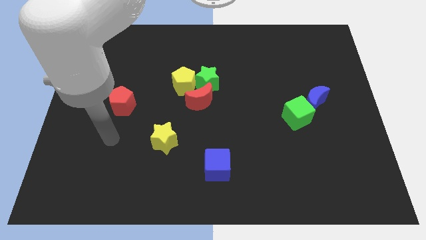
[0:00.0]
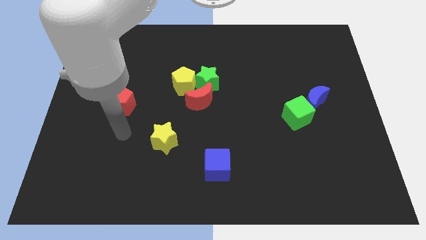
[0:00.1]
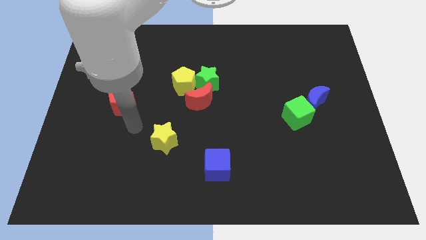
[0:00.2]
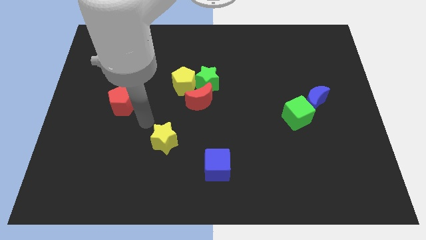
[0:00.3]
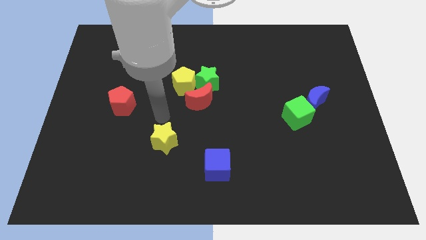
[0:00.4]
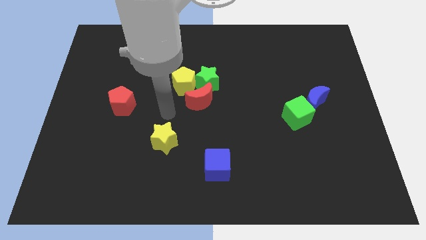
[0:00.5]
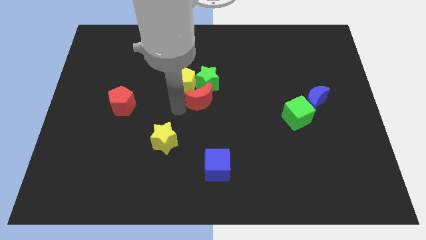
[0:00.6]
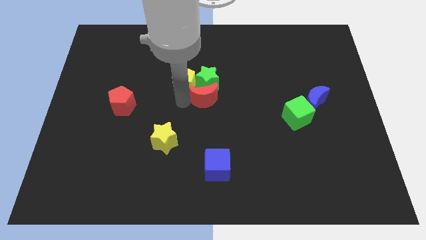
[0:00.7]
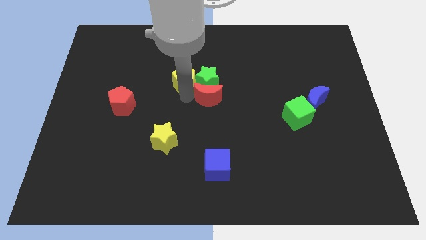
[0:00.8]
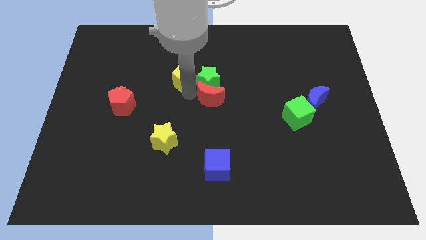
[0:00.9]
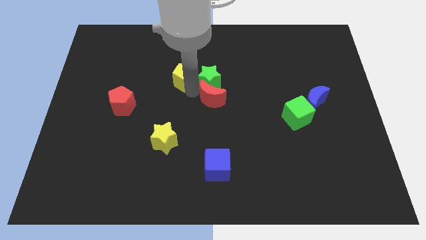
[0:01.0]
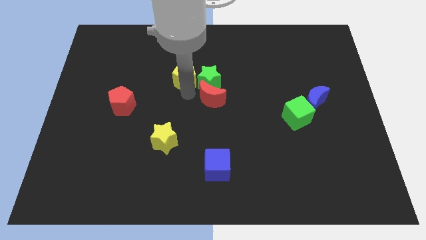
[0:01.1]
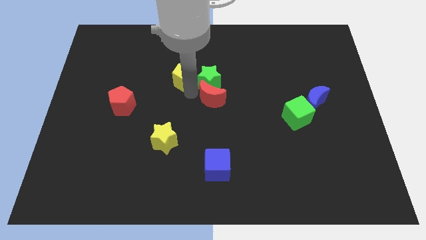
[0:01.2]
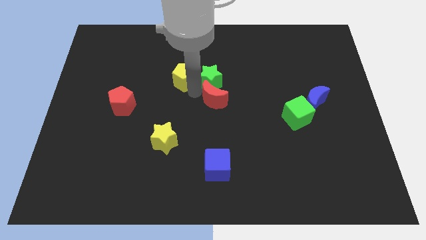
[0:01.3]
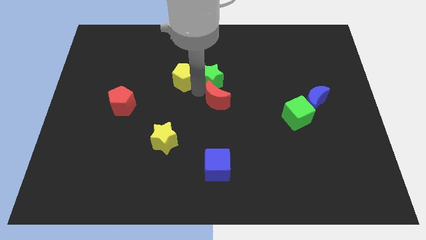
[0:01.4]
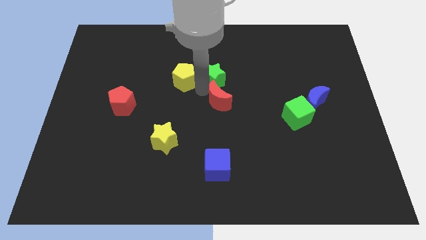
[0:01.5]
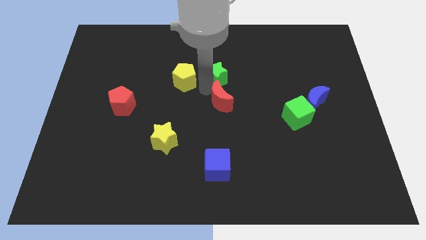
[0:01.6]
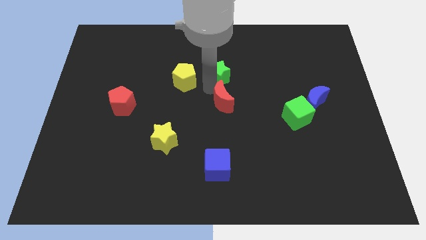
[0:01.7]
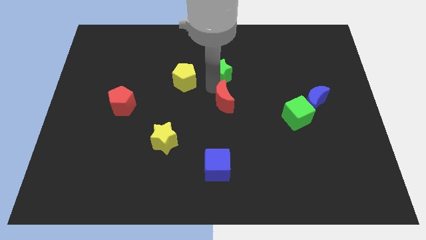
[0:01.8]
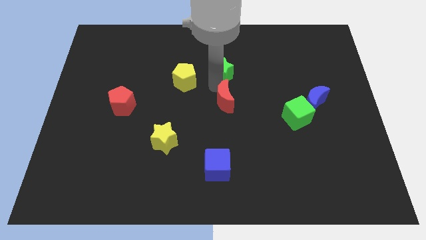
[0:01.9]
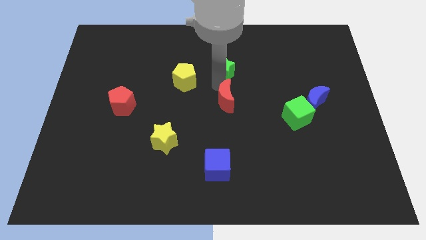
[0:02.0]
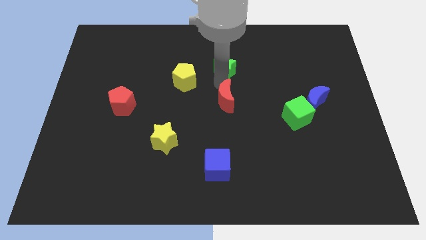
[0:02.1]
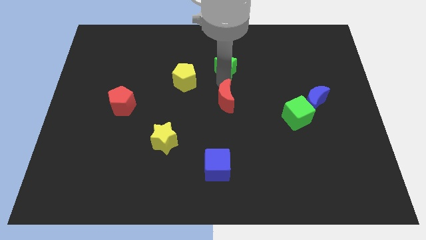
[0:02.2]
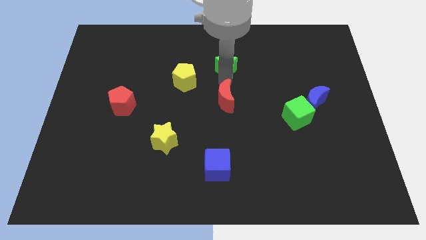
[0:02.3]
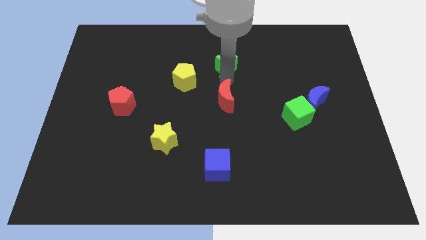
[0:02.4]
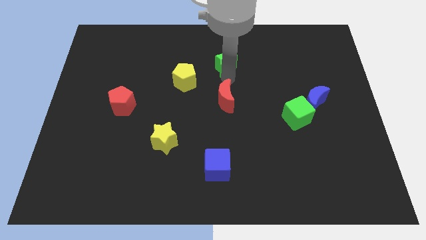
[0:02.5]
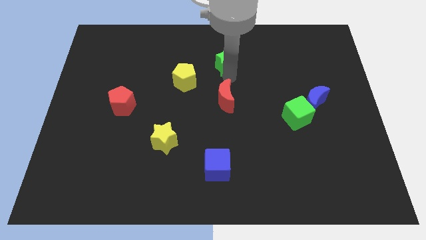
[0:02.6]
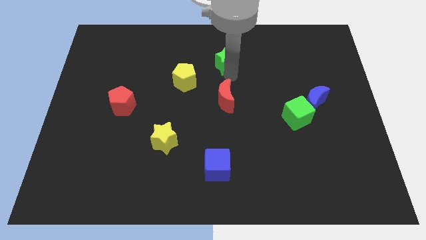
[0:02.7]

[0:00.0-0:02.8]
separate the green star from the yellow pentagon and red moon

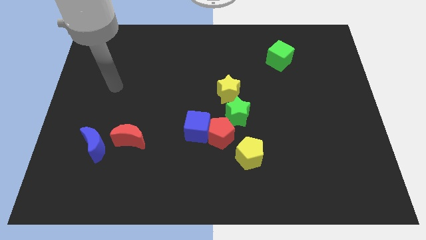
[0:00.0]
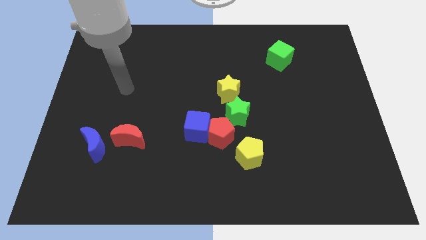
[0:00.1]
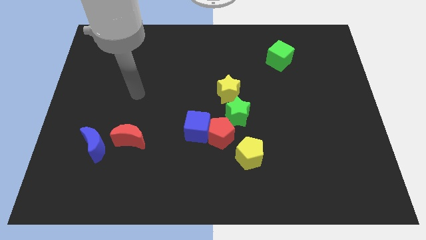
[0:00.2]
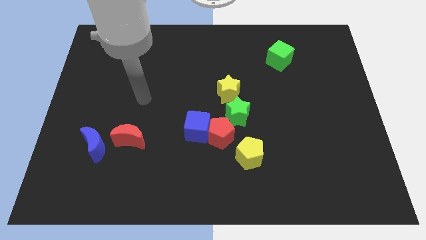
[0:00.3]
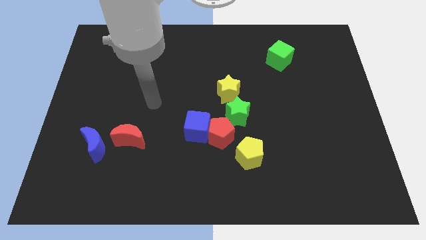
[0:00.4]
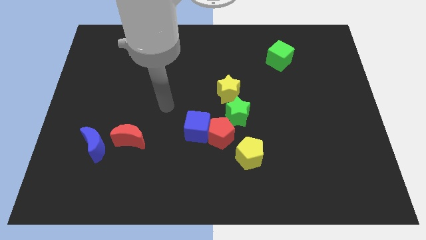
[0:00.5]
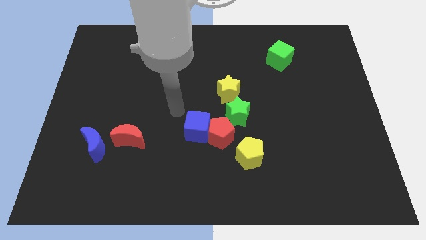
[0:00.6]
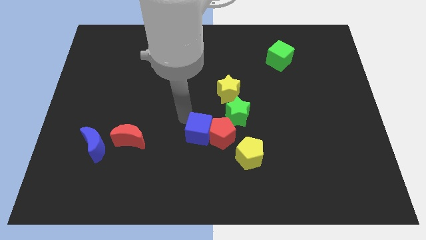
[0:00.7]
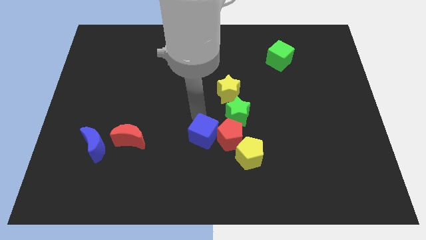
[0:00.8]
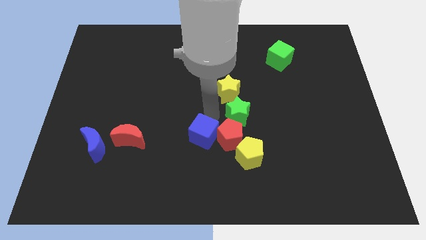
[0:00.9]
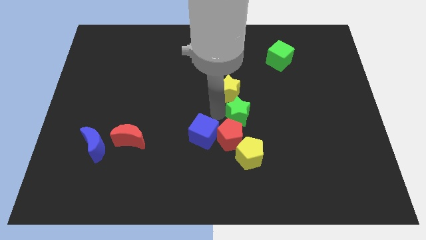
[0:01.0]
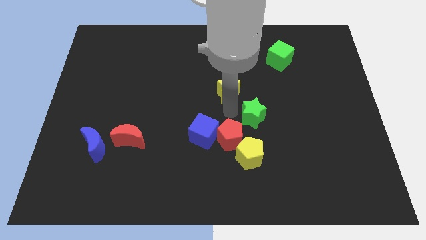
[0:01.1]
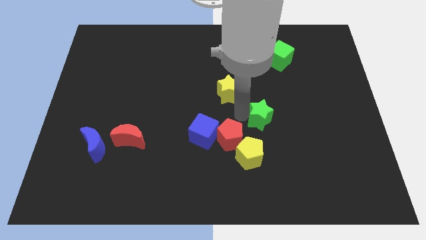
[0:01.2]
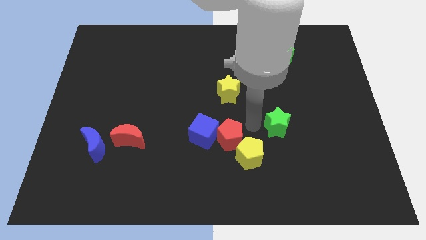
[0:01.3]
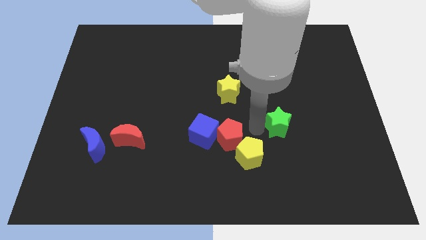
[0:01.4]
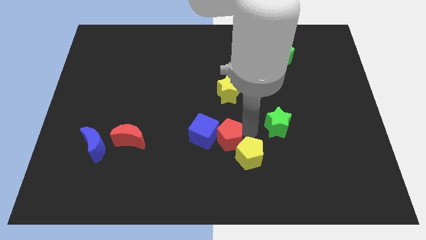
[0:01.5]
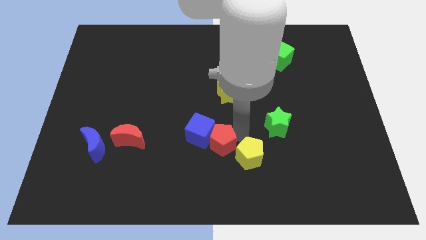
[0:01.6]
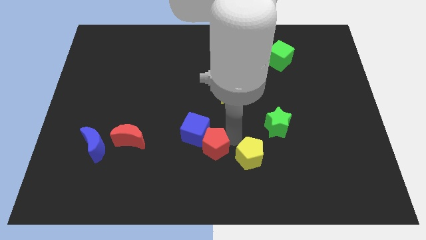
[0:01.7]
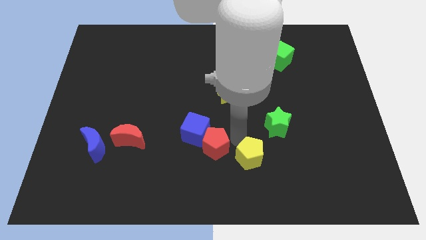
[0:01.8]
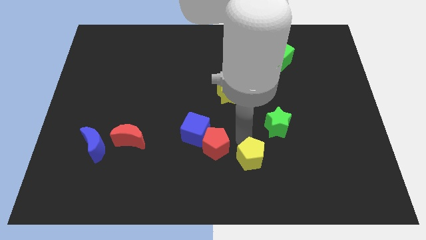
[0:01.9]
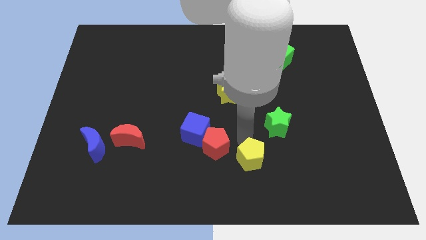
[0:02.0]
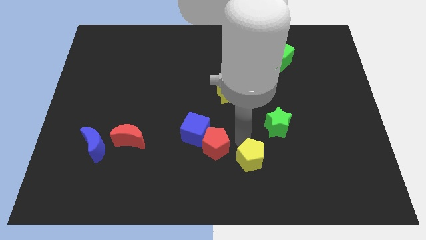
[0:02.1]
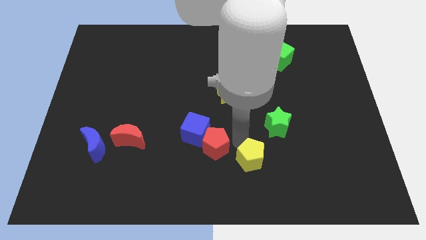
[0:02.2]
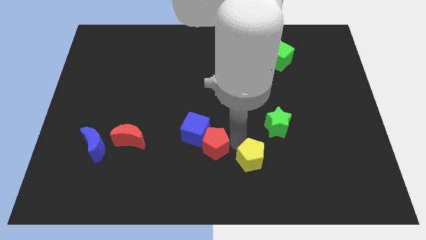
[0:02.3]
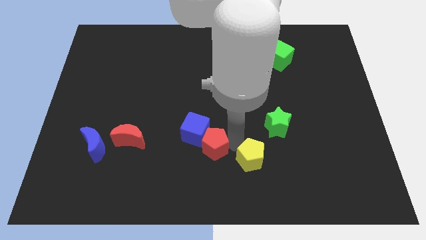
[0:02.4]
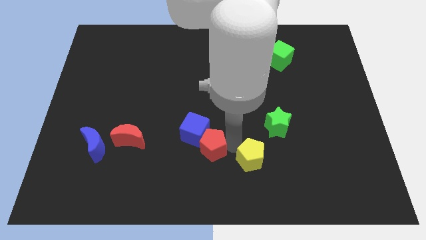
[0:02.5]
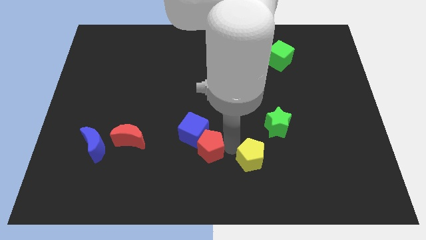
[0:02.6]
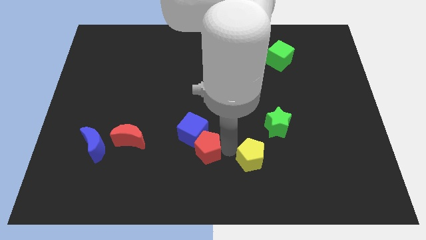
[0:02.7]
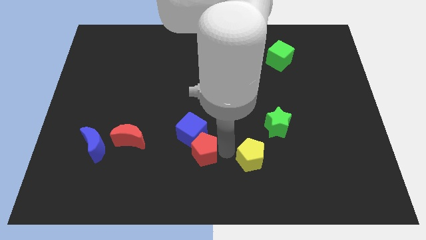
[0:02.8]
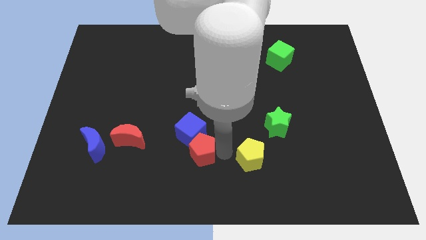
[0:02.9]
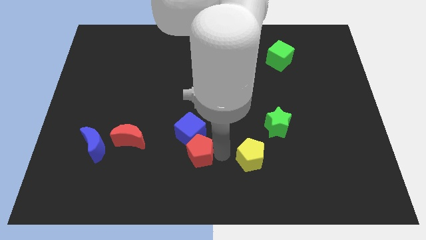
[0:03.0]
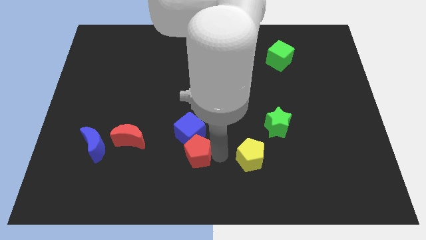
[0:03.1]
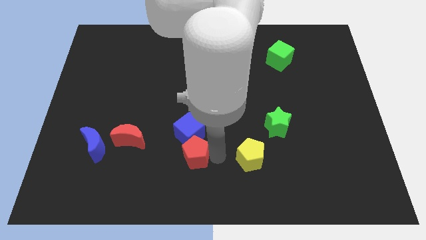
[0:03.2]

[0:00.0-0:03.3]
separate the red pentagon from the blue cube, green star, and yellow pentagon

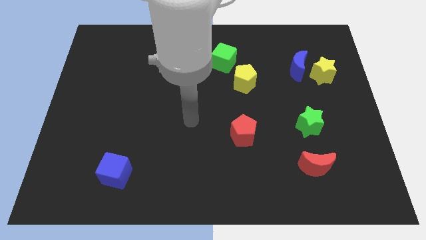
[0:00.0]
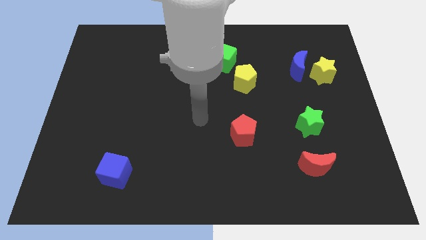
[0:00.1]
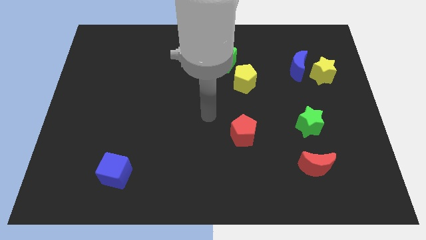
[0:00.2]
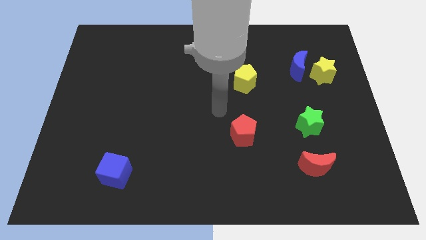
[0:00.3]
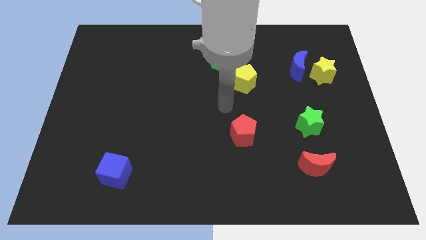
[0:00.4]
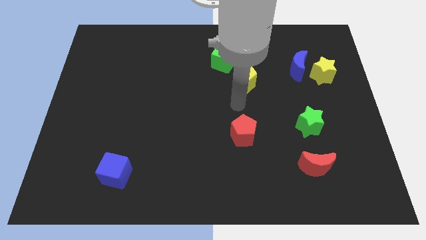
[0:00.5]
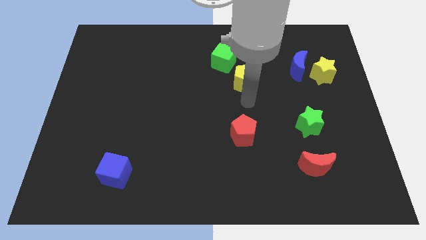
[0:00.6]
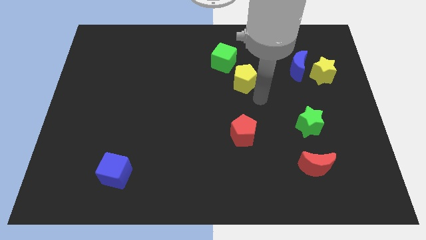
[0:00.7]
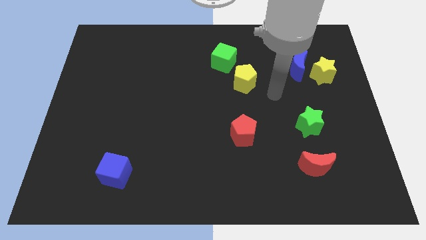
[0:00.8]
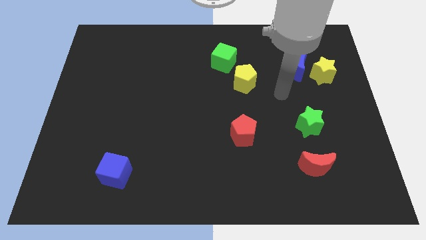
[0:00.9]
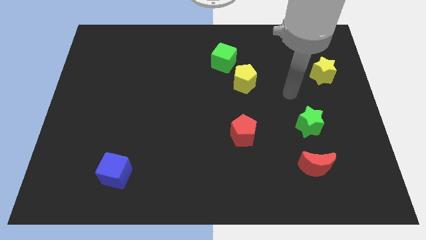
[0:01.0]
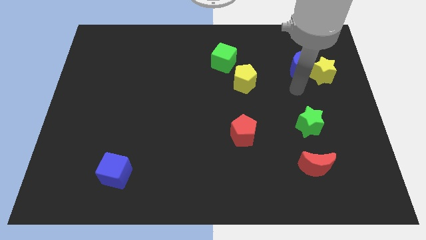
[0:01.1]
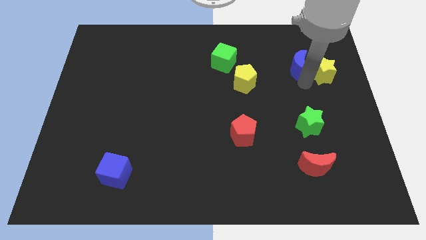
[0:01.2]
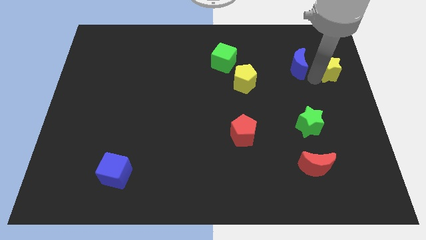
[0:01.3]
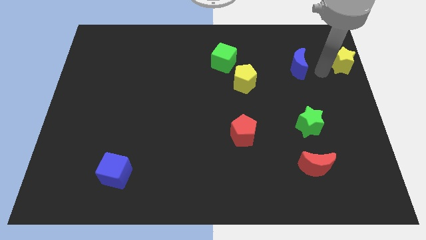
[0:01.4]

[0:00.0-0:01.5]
separate the blue moon from the yellow star

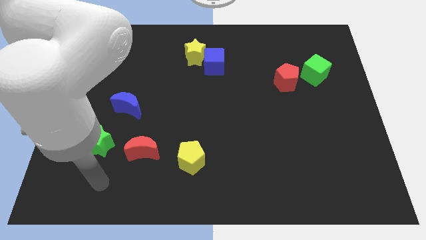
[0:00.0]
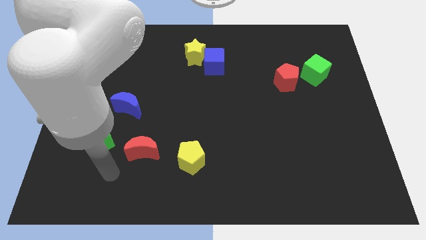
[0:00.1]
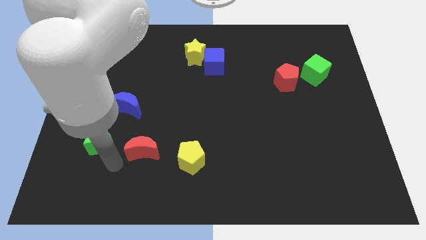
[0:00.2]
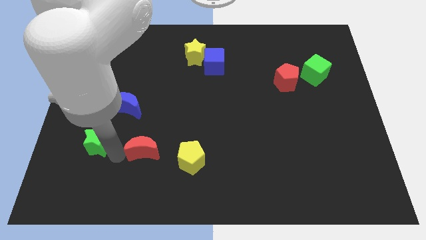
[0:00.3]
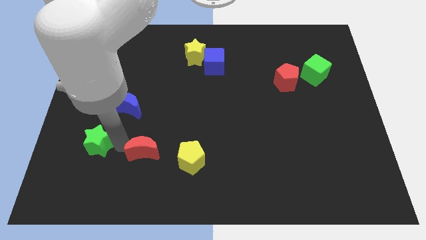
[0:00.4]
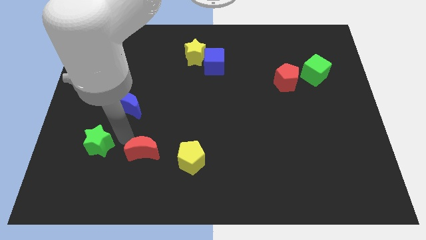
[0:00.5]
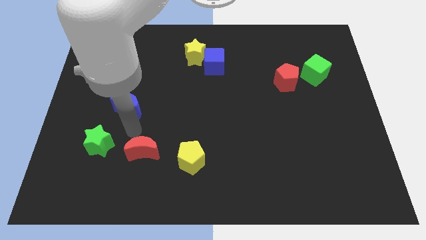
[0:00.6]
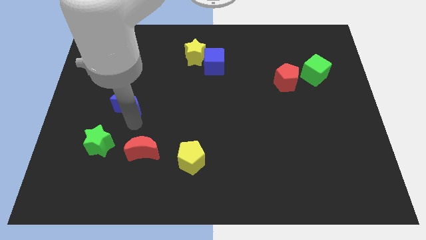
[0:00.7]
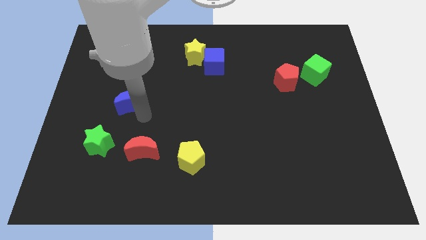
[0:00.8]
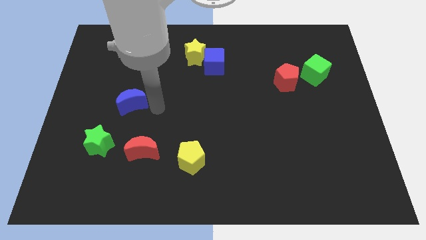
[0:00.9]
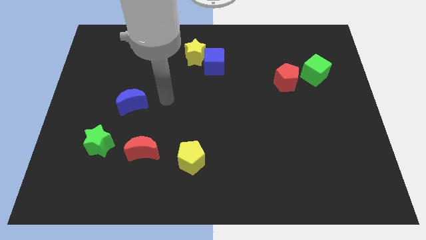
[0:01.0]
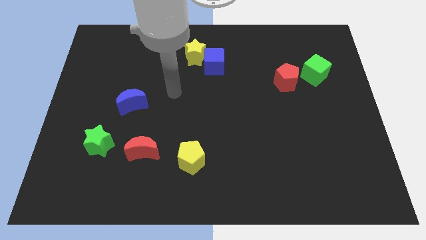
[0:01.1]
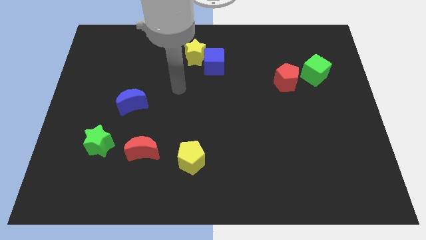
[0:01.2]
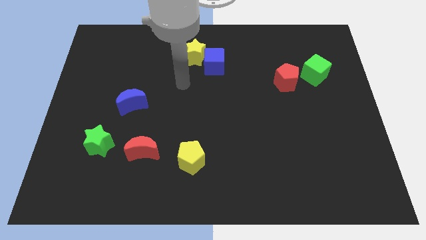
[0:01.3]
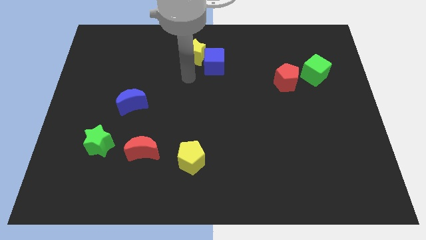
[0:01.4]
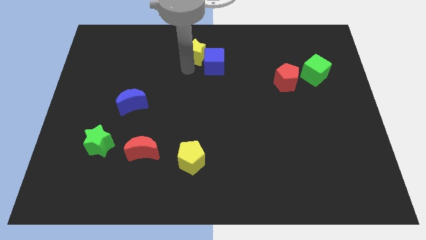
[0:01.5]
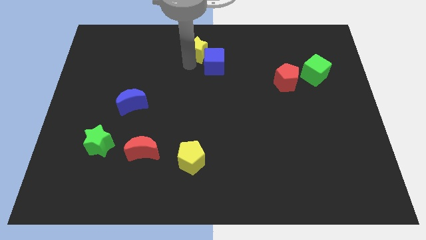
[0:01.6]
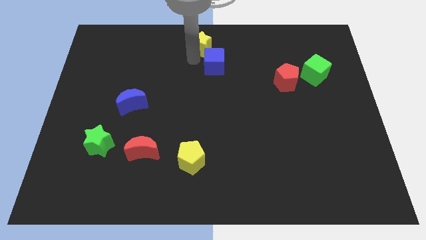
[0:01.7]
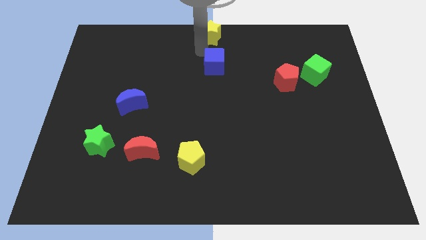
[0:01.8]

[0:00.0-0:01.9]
separate the blue cube from the yellow star

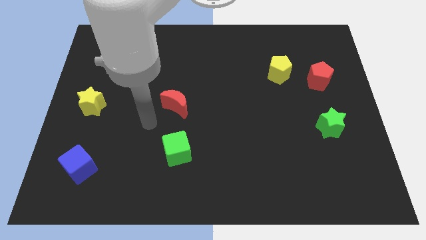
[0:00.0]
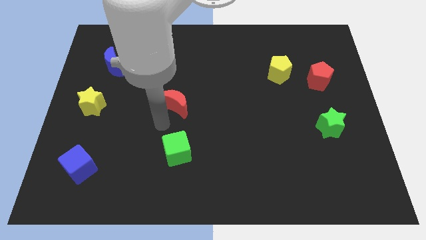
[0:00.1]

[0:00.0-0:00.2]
move the red pentagon away from the yellow pentagon
